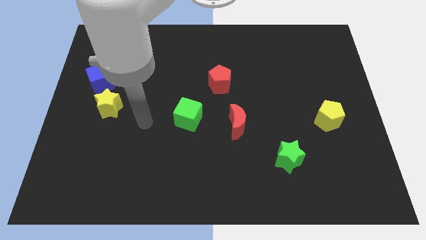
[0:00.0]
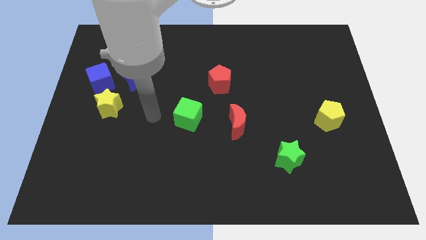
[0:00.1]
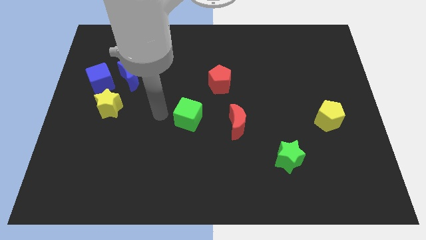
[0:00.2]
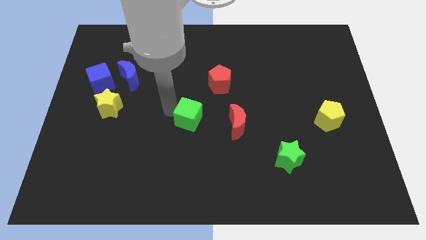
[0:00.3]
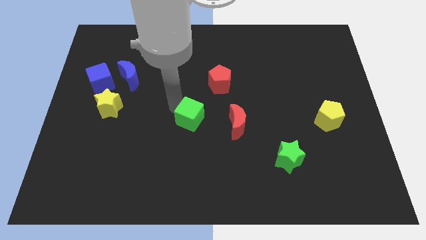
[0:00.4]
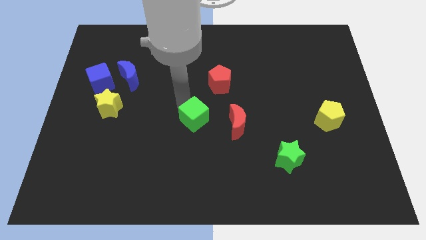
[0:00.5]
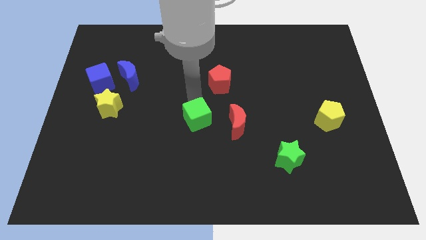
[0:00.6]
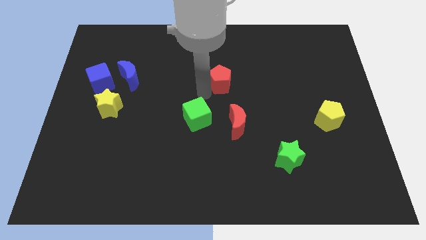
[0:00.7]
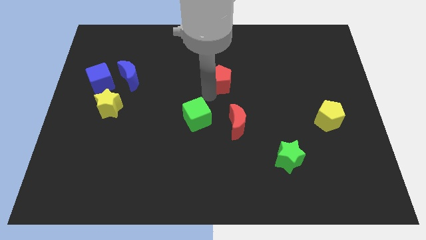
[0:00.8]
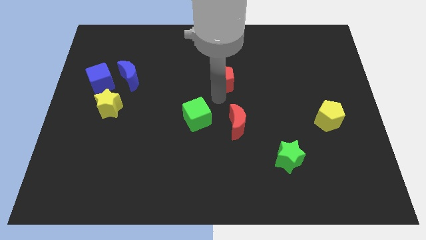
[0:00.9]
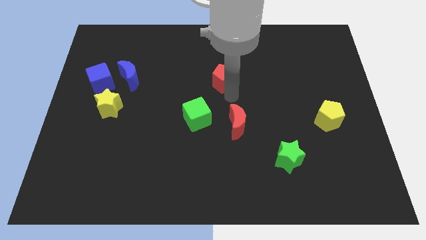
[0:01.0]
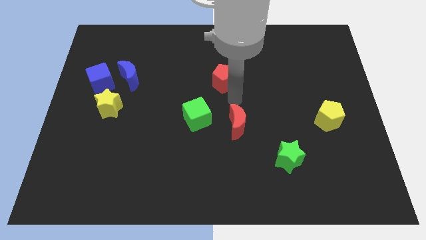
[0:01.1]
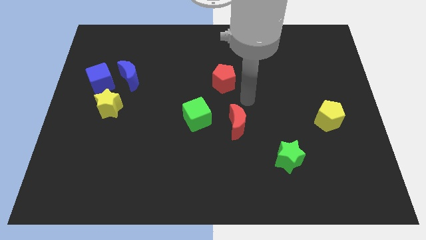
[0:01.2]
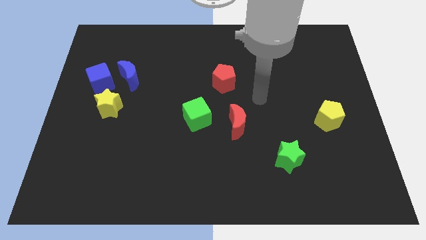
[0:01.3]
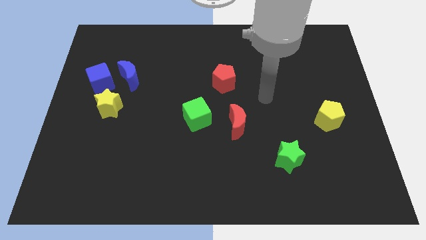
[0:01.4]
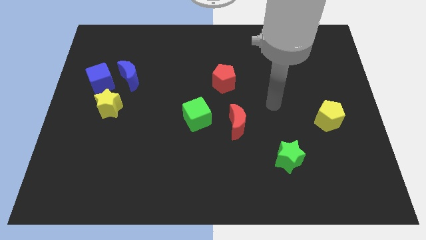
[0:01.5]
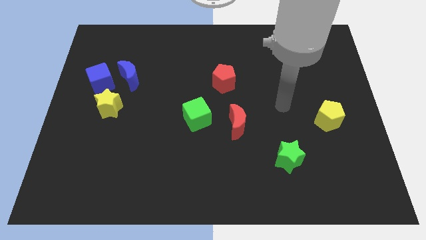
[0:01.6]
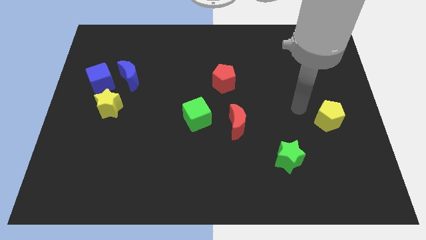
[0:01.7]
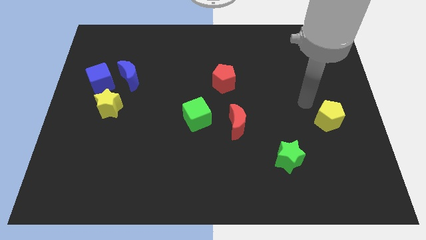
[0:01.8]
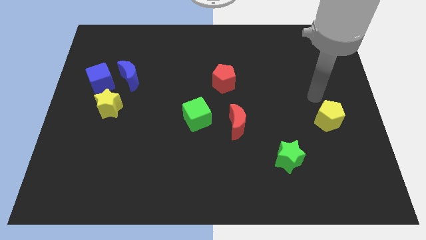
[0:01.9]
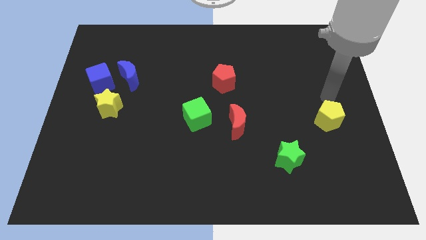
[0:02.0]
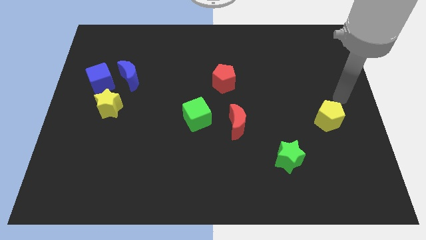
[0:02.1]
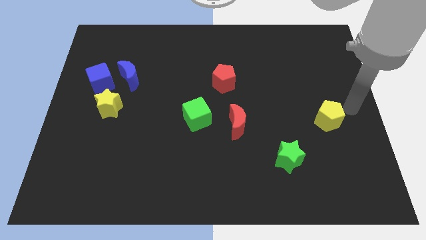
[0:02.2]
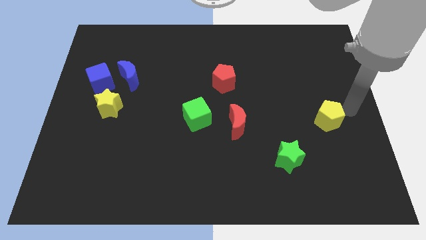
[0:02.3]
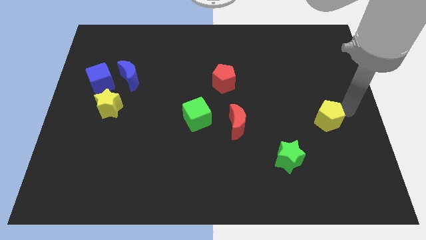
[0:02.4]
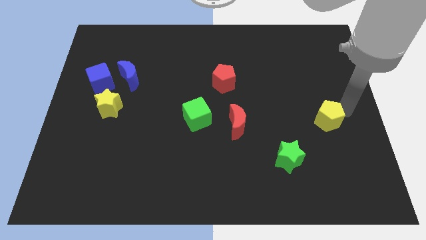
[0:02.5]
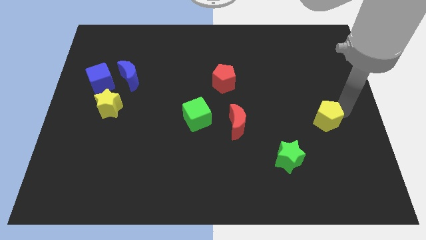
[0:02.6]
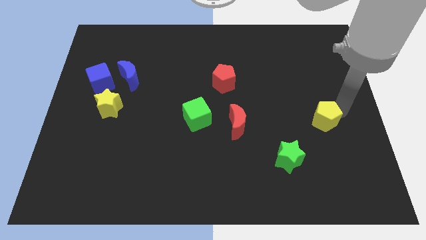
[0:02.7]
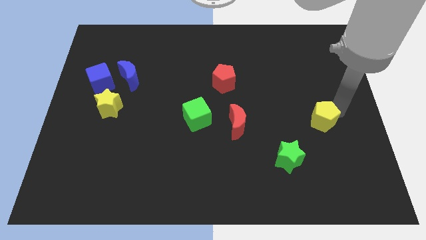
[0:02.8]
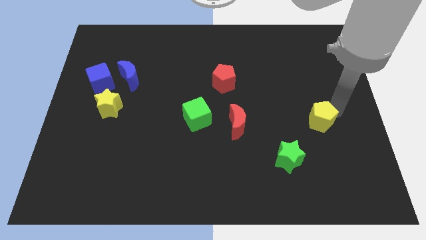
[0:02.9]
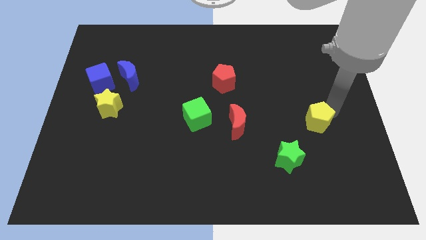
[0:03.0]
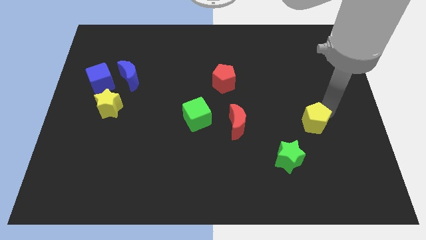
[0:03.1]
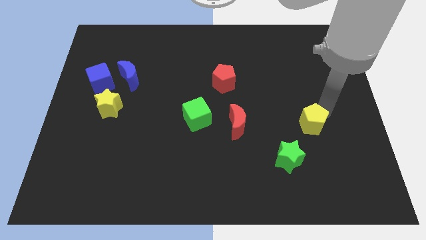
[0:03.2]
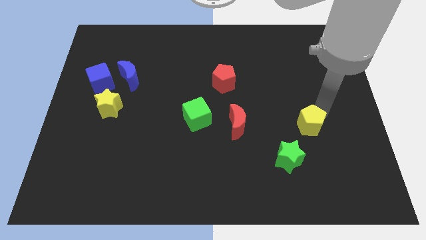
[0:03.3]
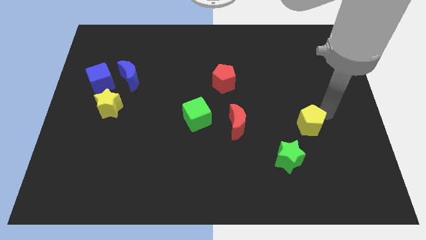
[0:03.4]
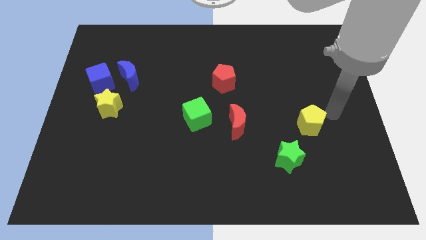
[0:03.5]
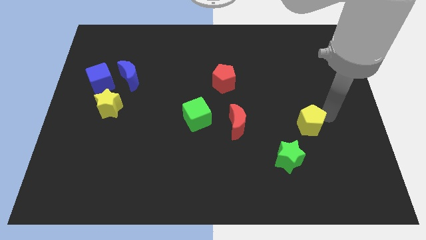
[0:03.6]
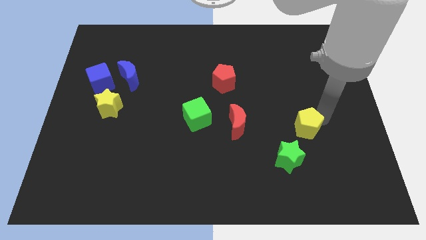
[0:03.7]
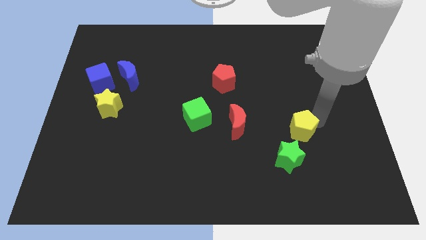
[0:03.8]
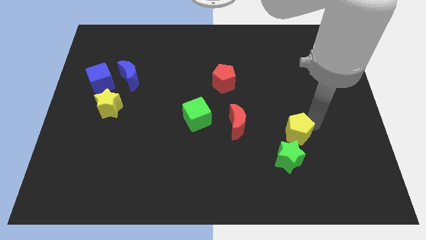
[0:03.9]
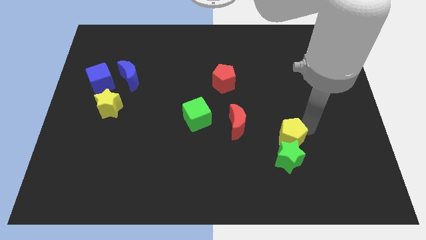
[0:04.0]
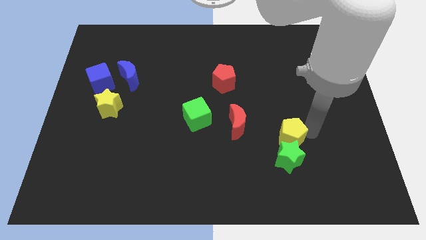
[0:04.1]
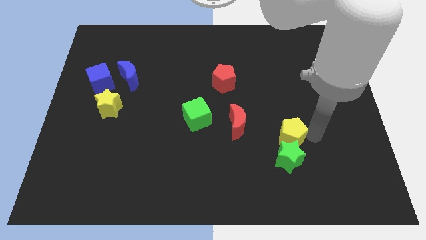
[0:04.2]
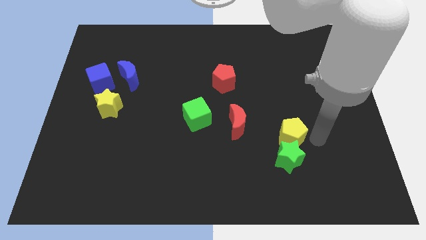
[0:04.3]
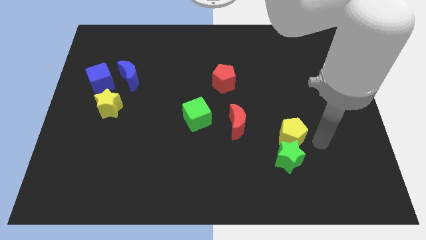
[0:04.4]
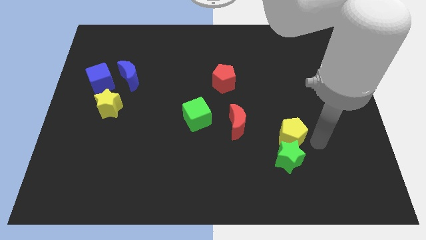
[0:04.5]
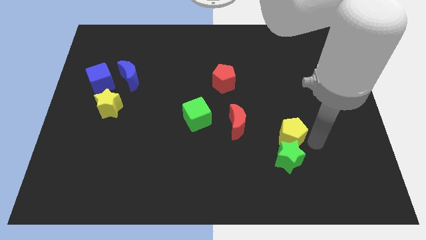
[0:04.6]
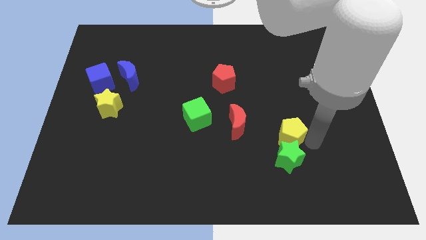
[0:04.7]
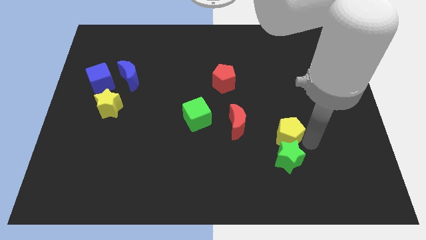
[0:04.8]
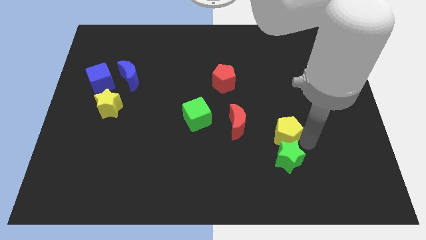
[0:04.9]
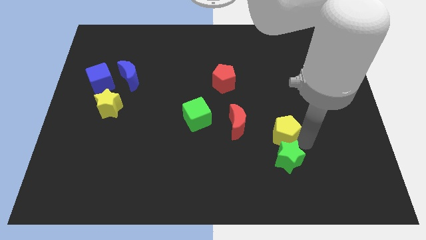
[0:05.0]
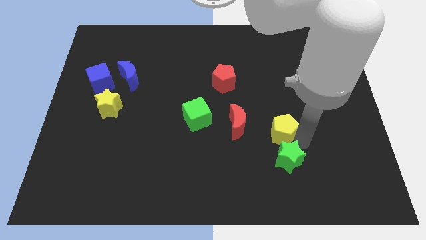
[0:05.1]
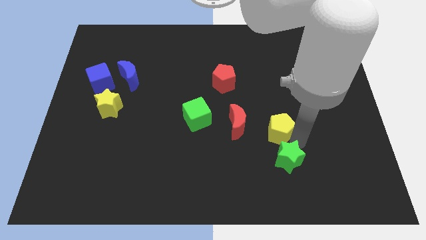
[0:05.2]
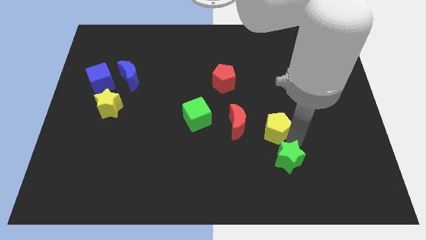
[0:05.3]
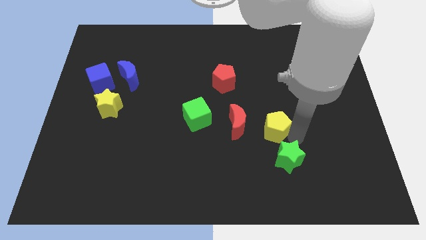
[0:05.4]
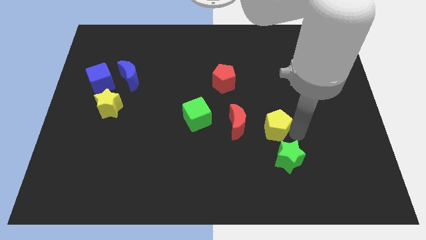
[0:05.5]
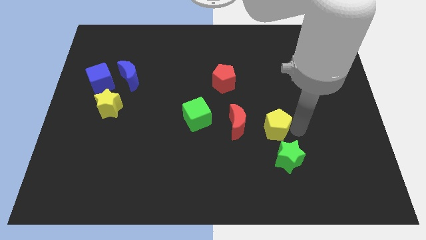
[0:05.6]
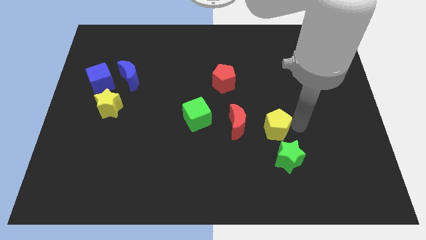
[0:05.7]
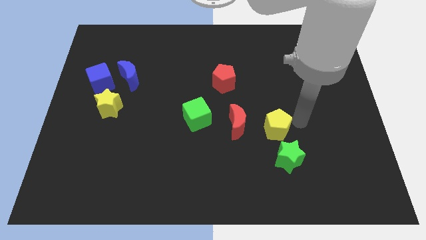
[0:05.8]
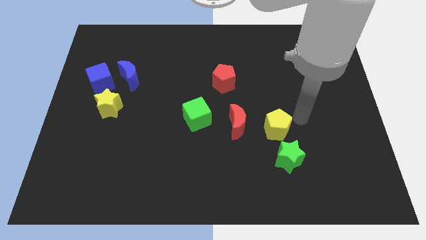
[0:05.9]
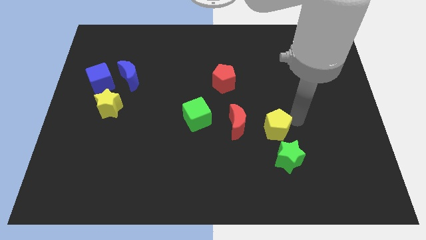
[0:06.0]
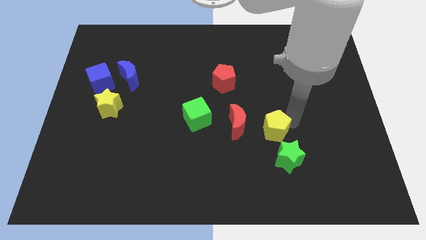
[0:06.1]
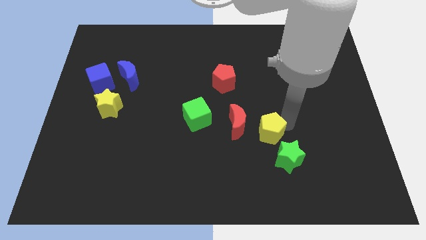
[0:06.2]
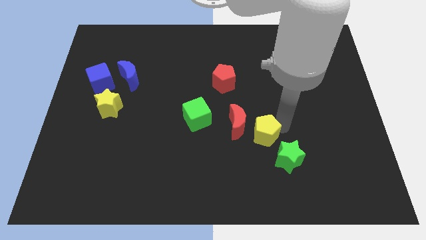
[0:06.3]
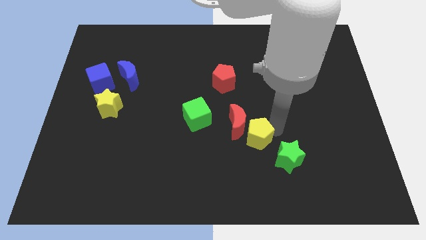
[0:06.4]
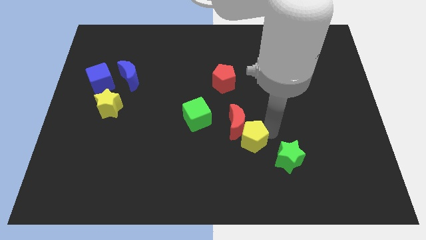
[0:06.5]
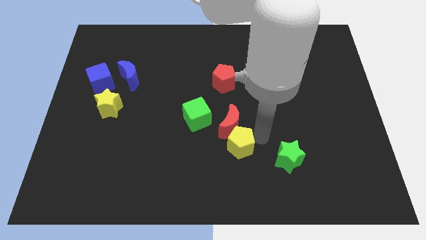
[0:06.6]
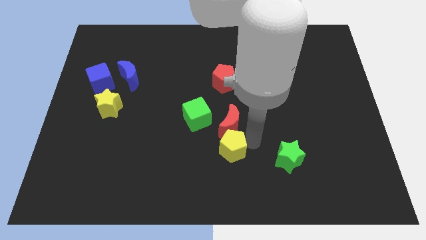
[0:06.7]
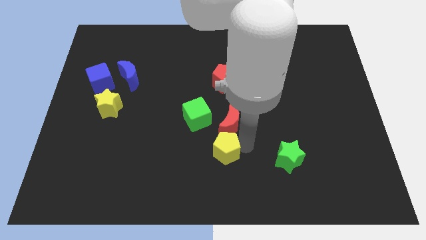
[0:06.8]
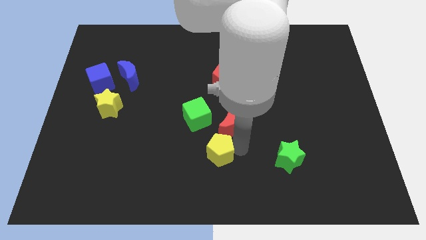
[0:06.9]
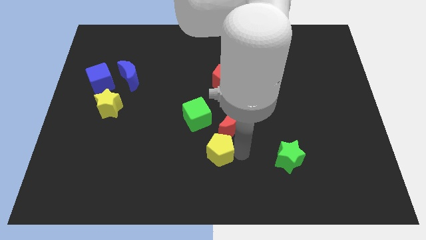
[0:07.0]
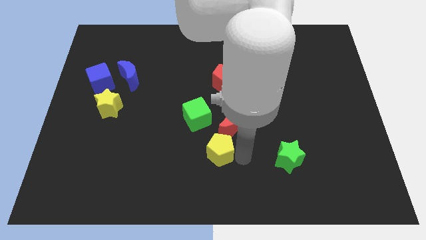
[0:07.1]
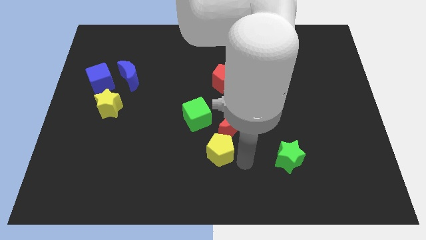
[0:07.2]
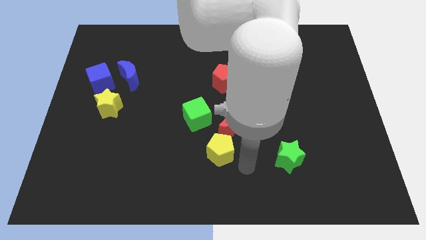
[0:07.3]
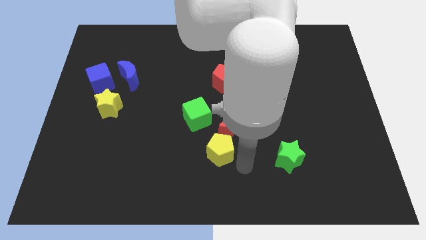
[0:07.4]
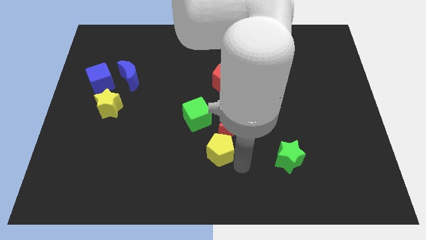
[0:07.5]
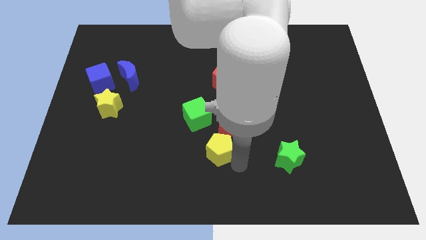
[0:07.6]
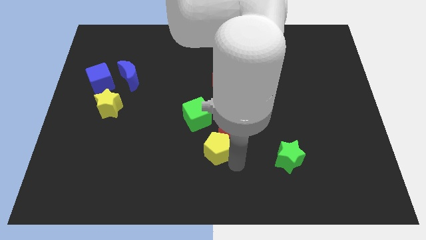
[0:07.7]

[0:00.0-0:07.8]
slide the yellow pentagon to the bottom of the green cube

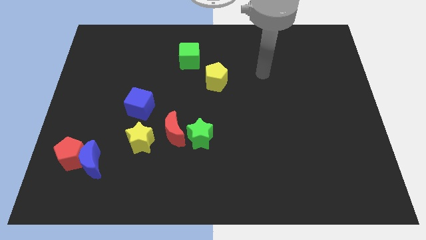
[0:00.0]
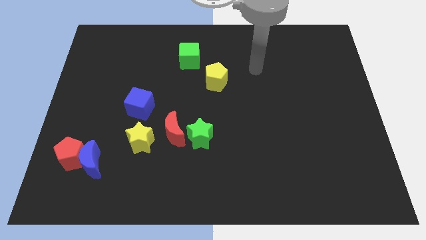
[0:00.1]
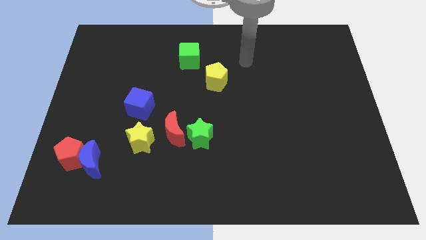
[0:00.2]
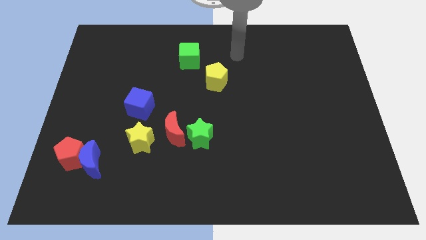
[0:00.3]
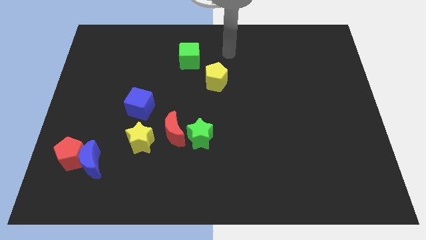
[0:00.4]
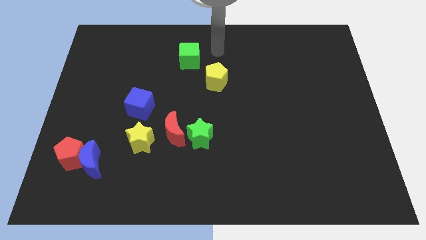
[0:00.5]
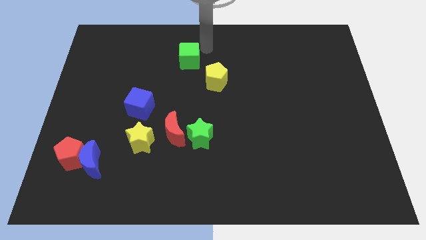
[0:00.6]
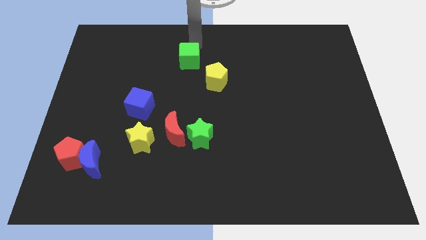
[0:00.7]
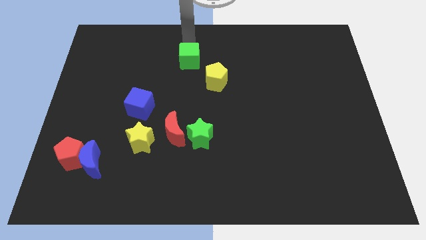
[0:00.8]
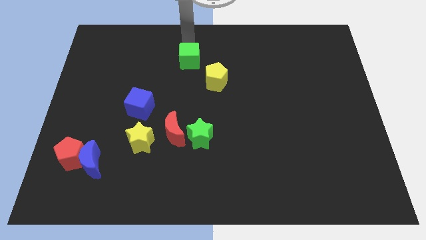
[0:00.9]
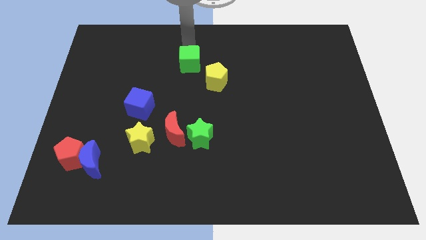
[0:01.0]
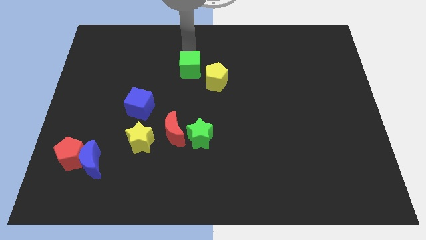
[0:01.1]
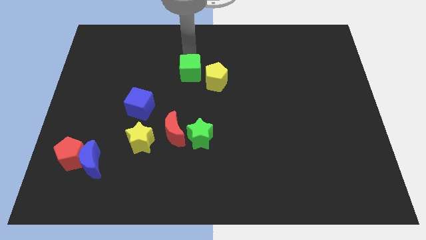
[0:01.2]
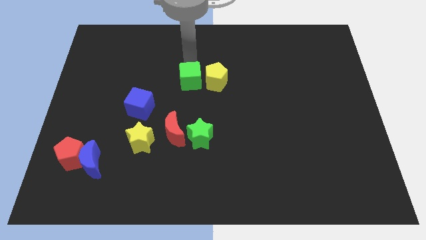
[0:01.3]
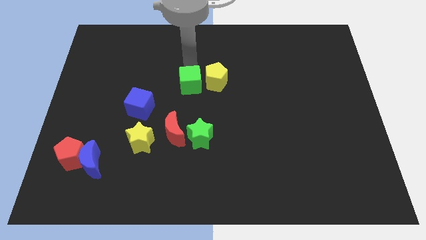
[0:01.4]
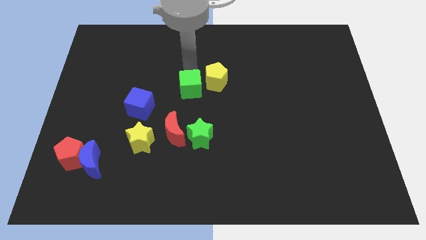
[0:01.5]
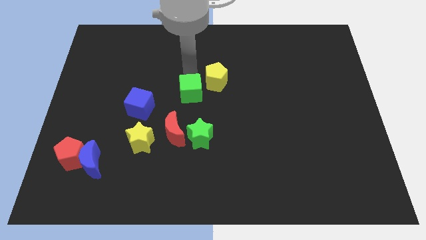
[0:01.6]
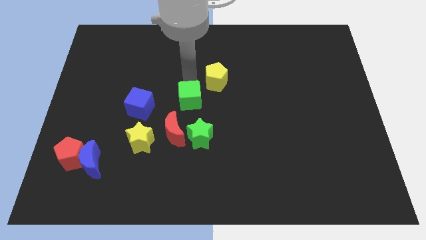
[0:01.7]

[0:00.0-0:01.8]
move the green cube diagonally up and to the right of the red moon
